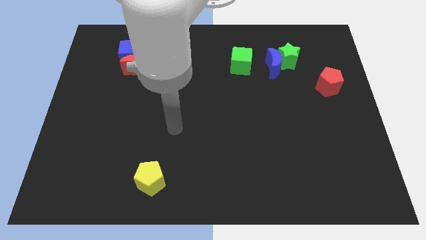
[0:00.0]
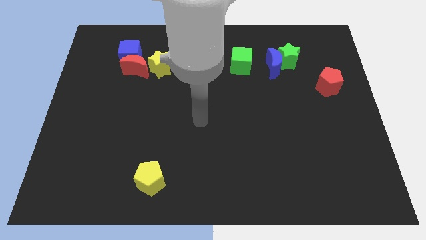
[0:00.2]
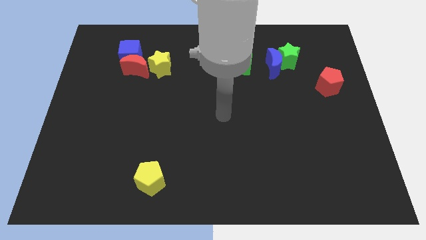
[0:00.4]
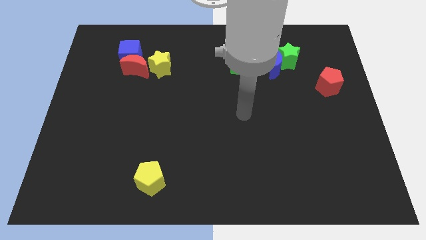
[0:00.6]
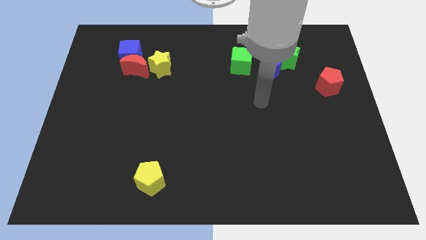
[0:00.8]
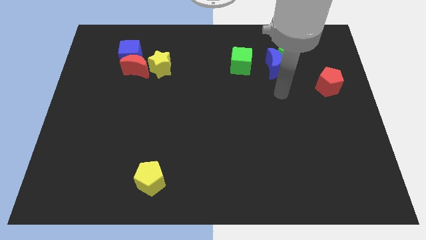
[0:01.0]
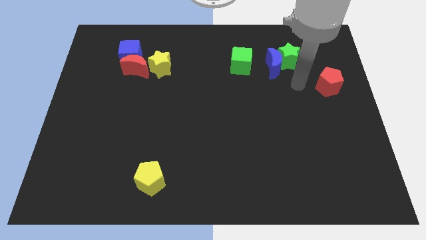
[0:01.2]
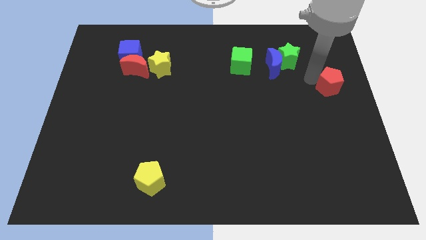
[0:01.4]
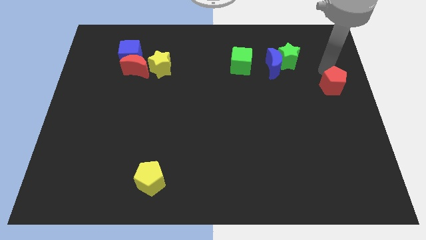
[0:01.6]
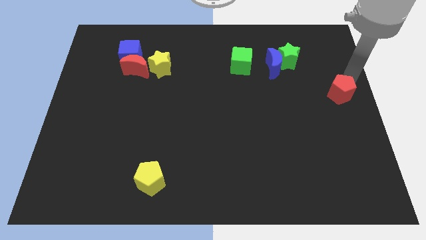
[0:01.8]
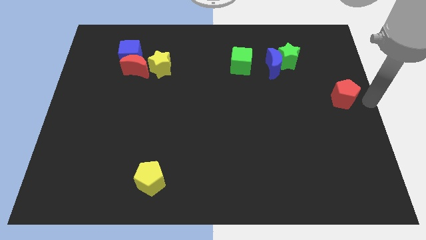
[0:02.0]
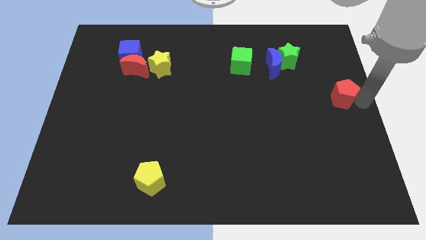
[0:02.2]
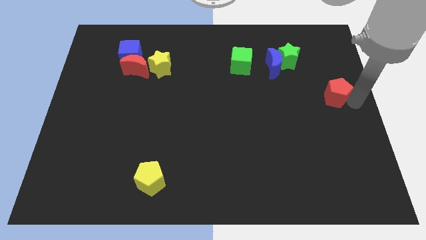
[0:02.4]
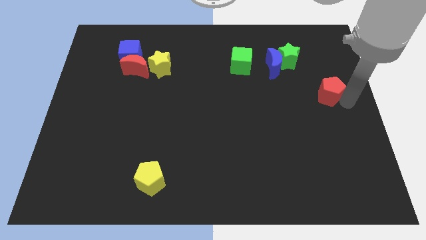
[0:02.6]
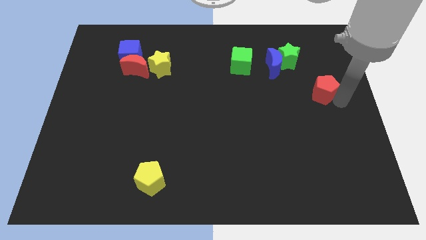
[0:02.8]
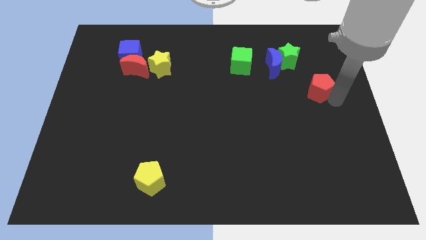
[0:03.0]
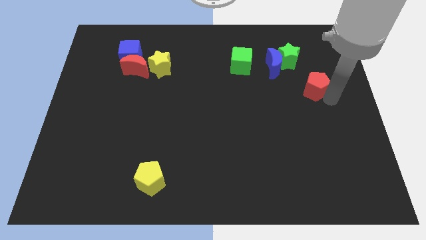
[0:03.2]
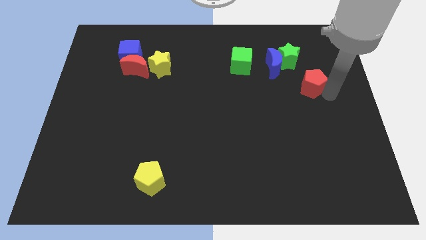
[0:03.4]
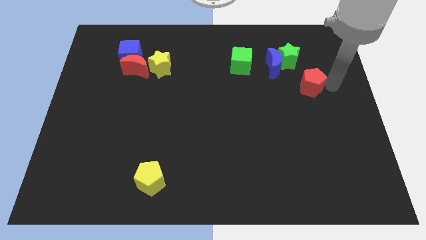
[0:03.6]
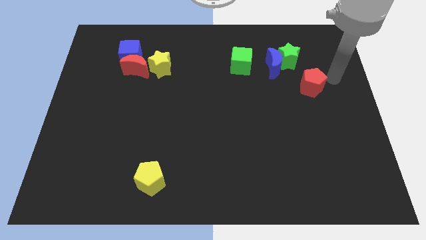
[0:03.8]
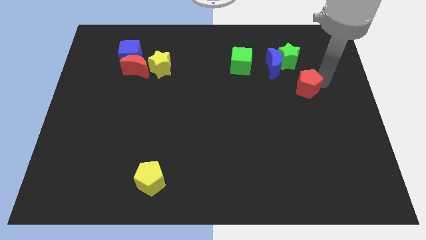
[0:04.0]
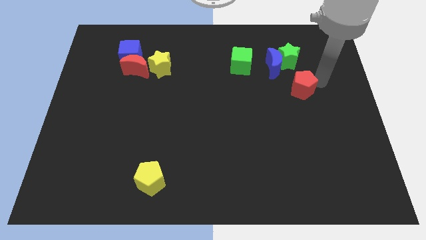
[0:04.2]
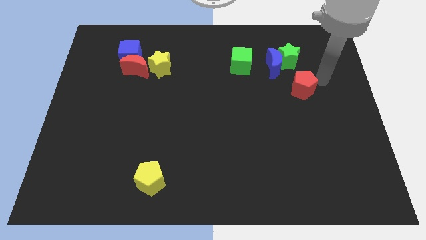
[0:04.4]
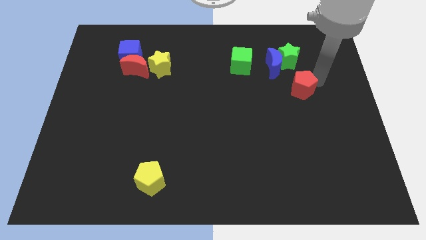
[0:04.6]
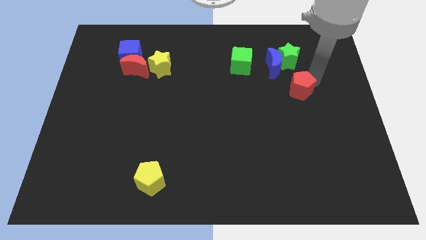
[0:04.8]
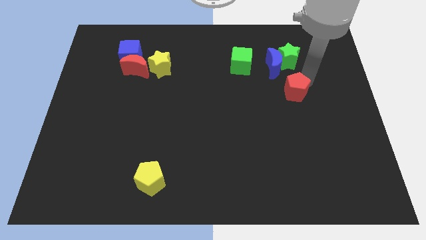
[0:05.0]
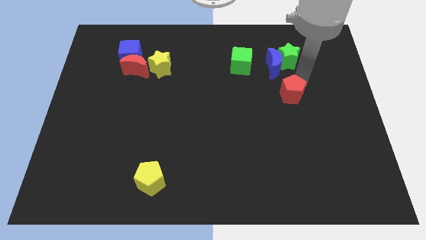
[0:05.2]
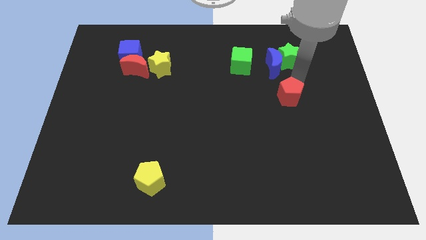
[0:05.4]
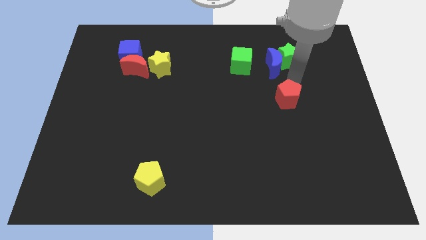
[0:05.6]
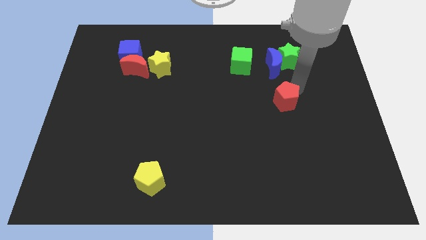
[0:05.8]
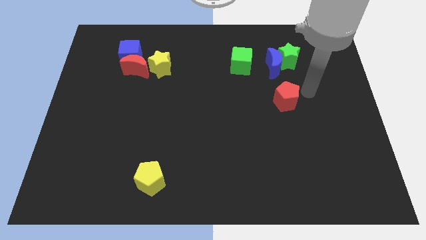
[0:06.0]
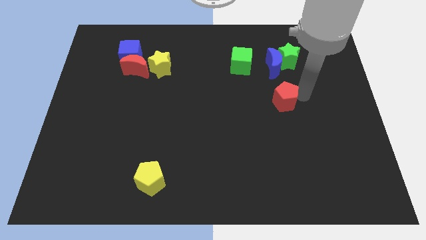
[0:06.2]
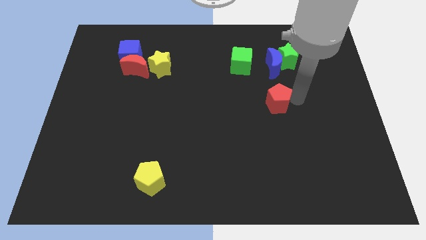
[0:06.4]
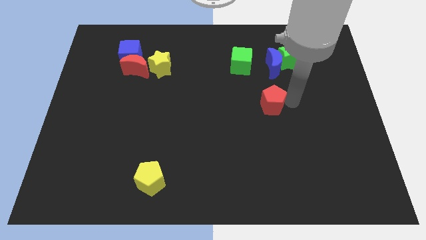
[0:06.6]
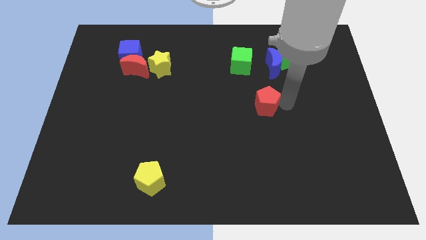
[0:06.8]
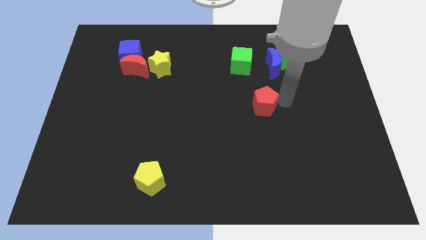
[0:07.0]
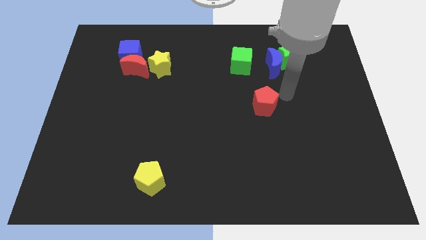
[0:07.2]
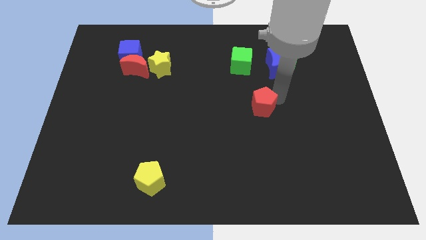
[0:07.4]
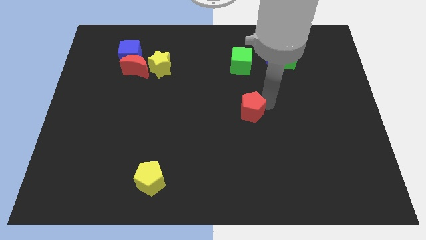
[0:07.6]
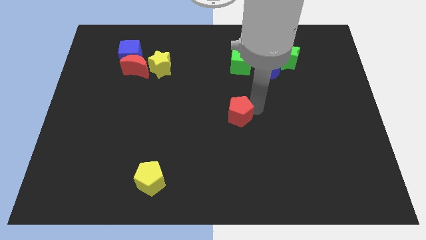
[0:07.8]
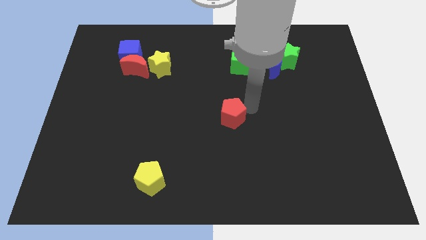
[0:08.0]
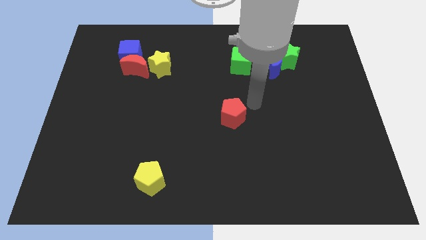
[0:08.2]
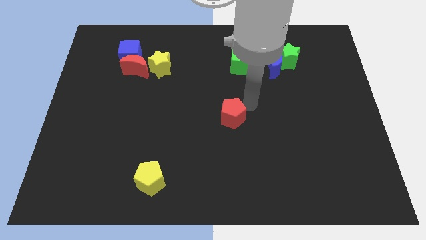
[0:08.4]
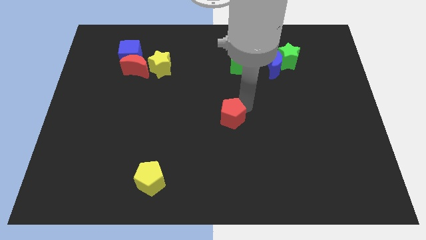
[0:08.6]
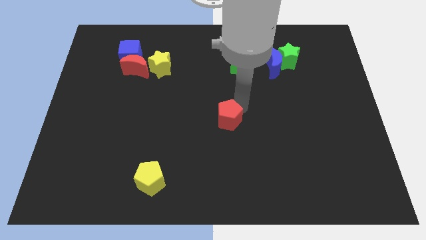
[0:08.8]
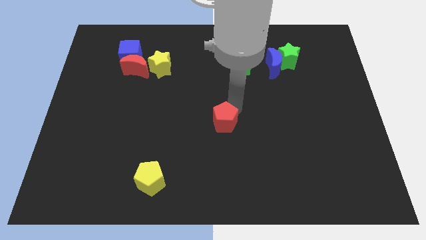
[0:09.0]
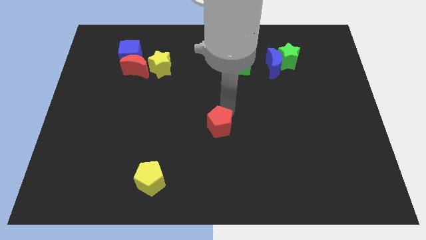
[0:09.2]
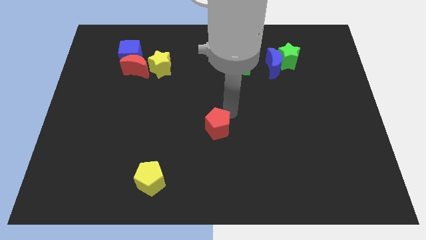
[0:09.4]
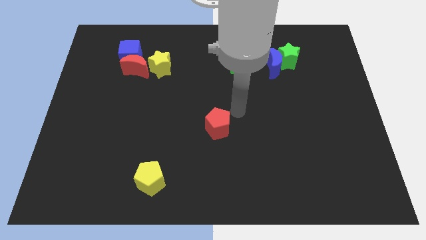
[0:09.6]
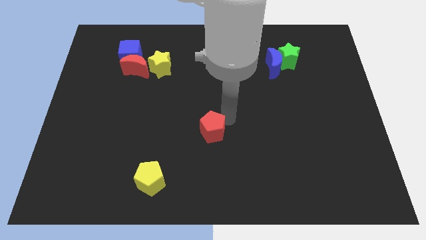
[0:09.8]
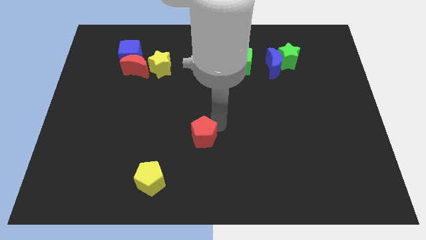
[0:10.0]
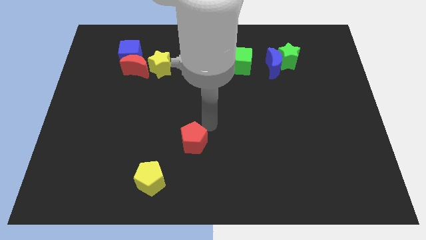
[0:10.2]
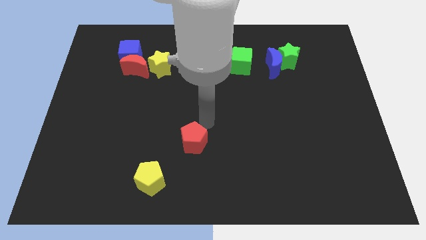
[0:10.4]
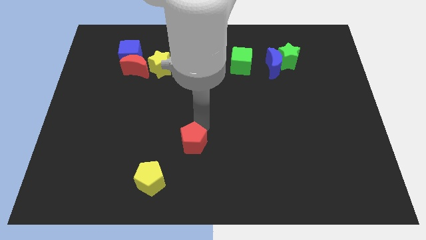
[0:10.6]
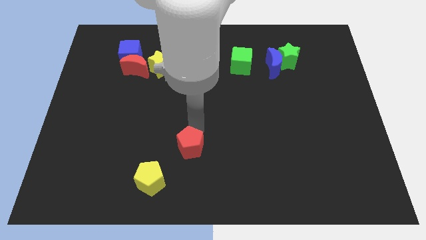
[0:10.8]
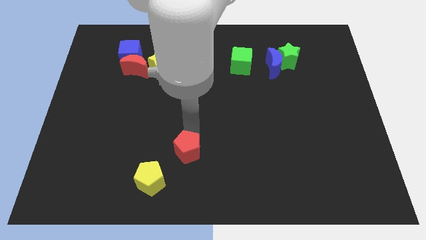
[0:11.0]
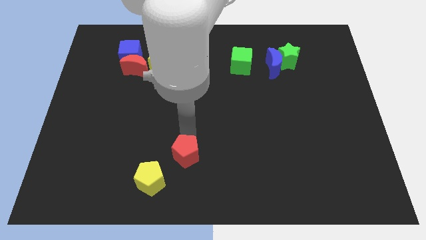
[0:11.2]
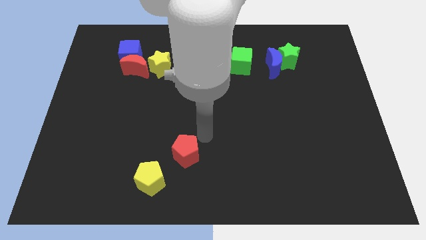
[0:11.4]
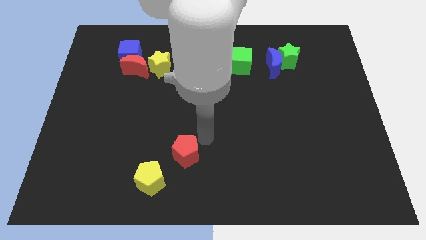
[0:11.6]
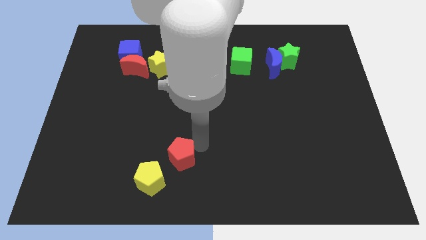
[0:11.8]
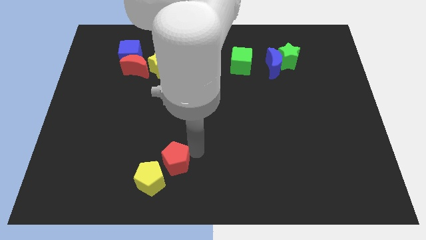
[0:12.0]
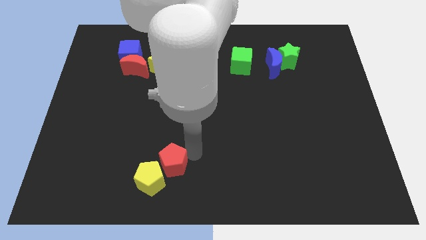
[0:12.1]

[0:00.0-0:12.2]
put the red pentagon to the yellow pentagon
